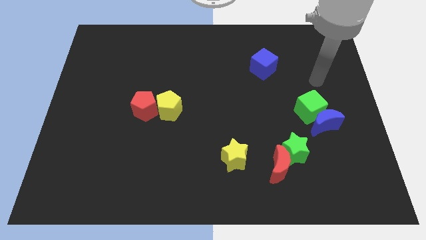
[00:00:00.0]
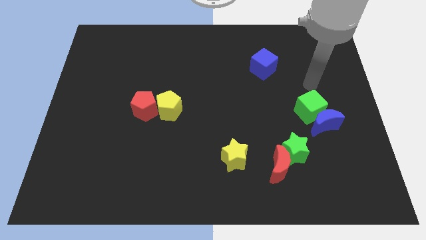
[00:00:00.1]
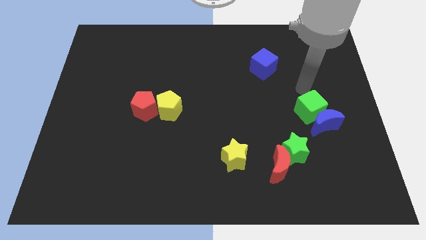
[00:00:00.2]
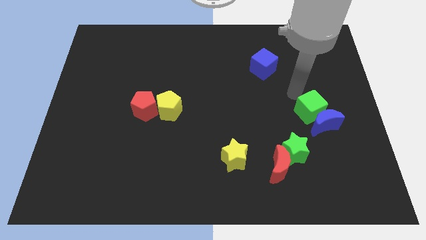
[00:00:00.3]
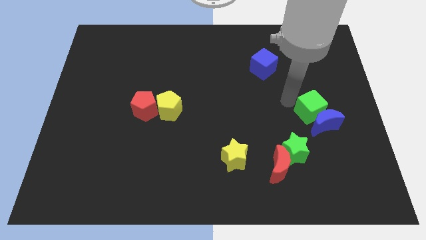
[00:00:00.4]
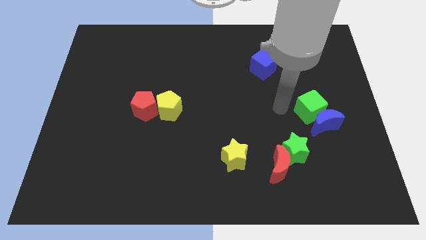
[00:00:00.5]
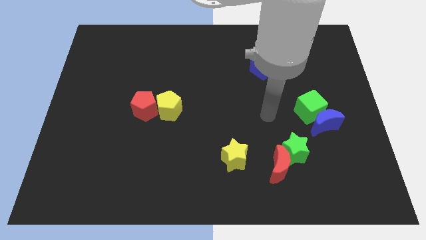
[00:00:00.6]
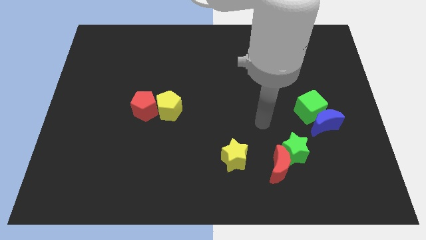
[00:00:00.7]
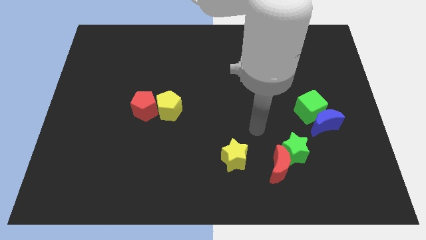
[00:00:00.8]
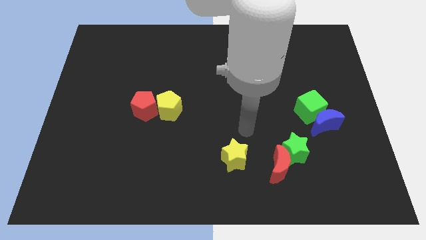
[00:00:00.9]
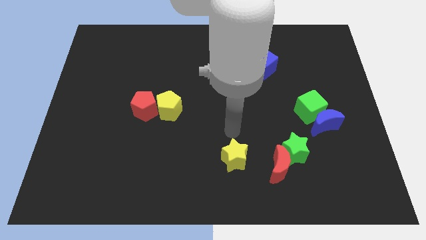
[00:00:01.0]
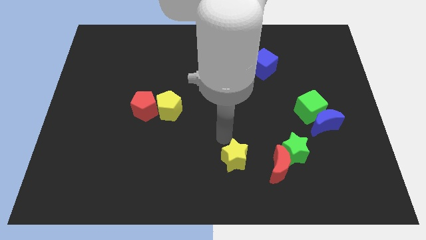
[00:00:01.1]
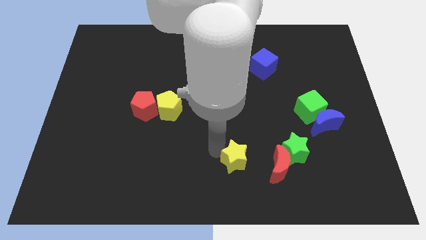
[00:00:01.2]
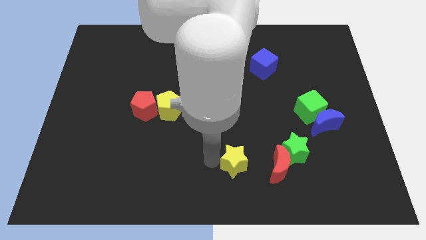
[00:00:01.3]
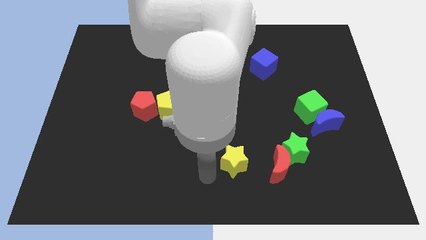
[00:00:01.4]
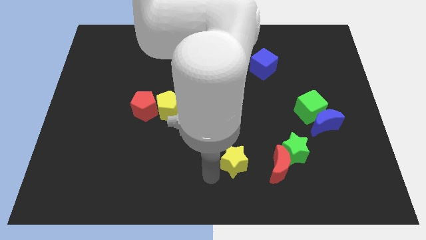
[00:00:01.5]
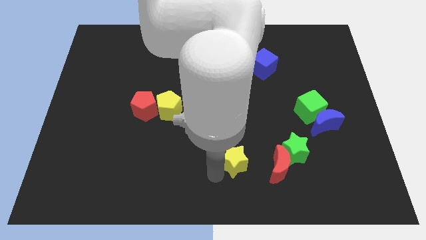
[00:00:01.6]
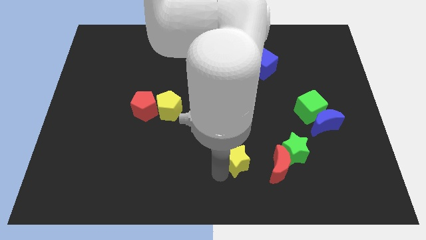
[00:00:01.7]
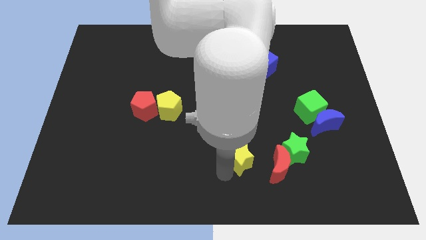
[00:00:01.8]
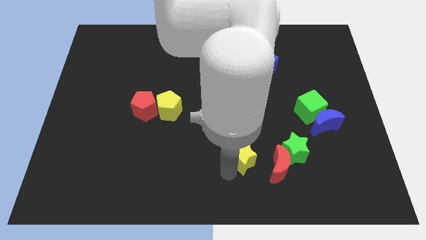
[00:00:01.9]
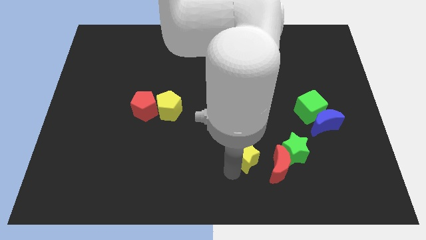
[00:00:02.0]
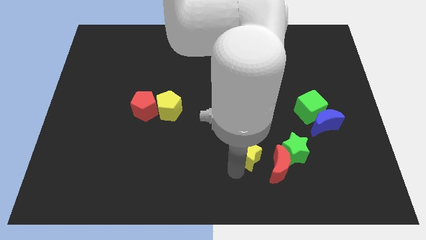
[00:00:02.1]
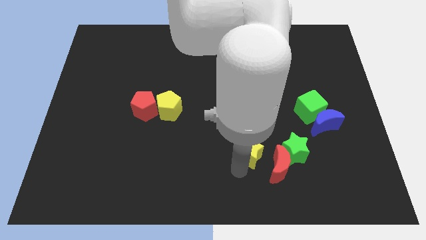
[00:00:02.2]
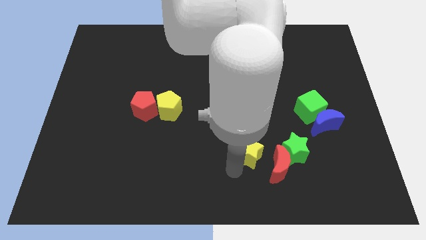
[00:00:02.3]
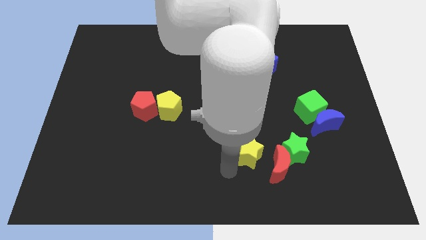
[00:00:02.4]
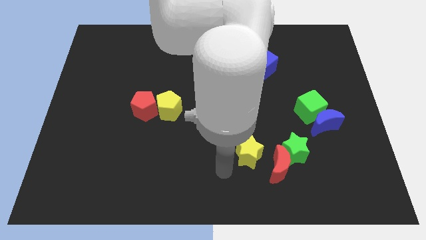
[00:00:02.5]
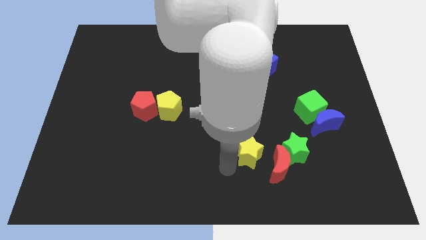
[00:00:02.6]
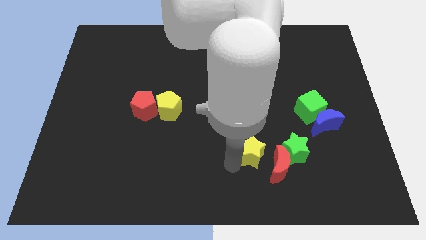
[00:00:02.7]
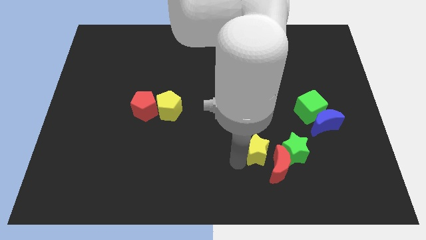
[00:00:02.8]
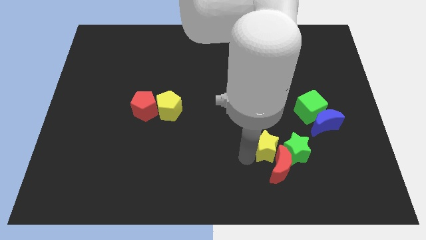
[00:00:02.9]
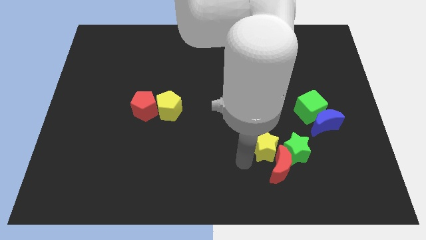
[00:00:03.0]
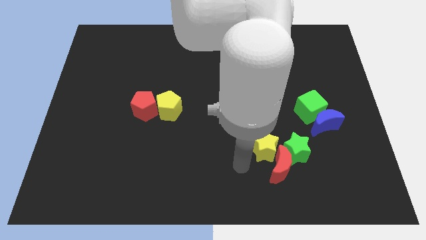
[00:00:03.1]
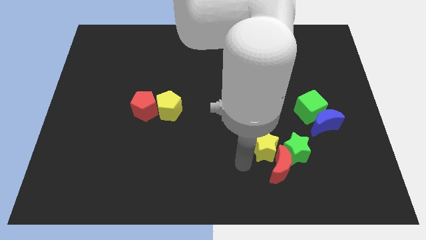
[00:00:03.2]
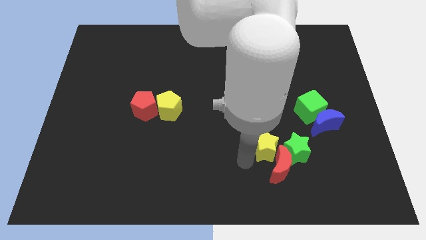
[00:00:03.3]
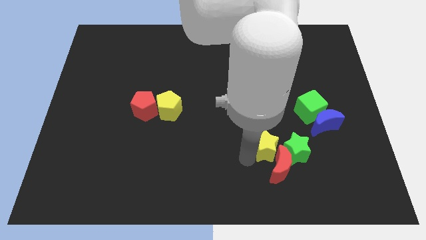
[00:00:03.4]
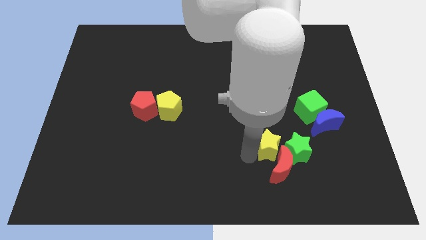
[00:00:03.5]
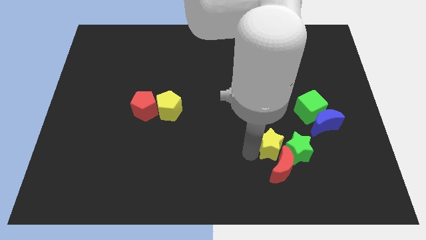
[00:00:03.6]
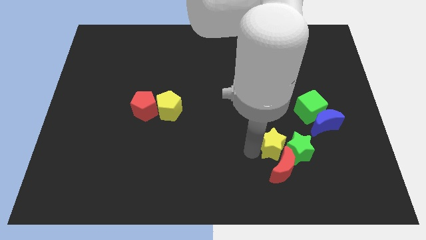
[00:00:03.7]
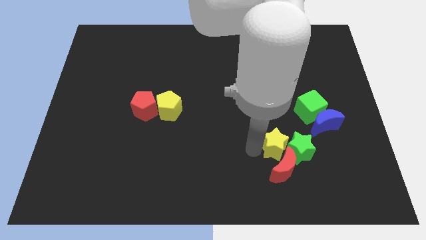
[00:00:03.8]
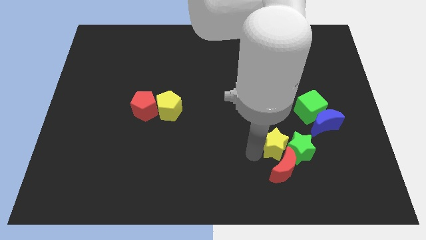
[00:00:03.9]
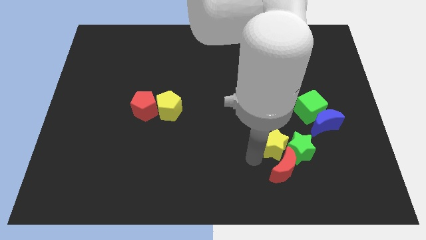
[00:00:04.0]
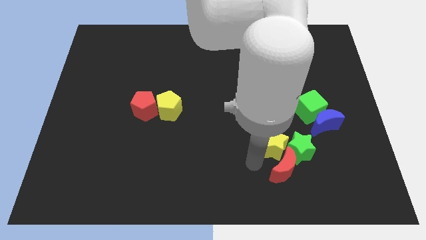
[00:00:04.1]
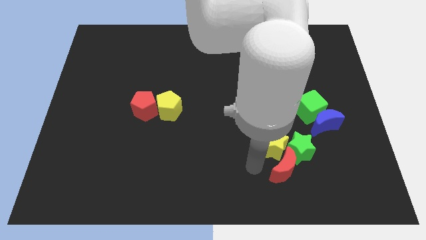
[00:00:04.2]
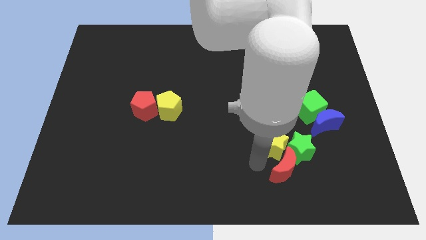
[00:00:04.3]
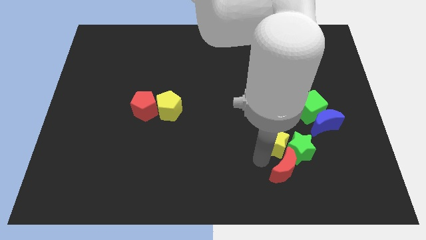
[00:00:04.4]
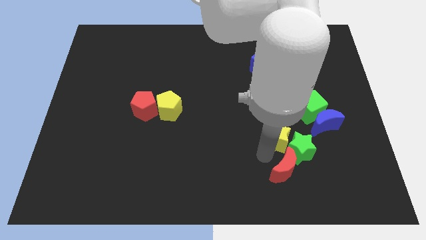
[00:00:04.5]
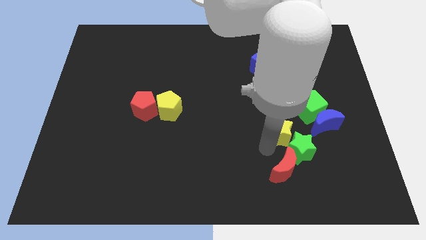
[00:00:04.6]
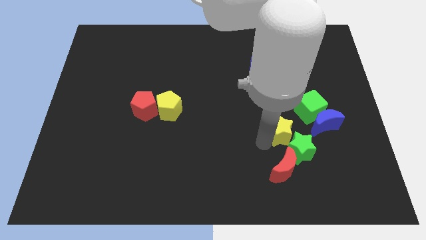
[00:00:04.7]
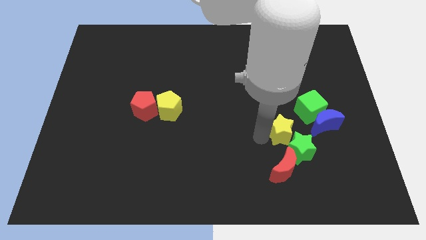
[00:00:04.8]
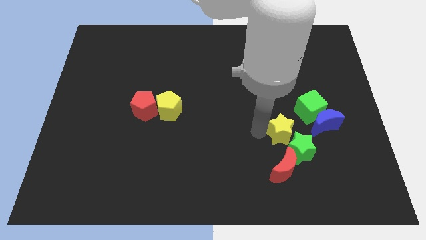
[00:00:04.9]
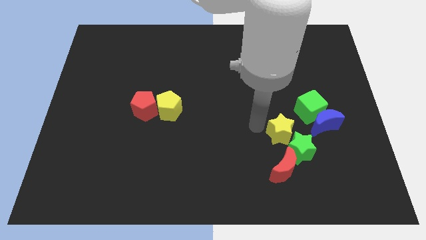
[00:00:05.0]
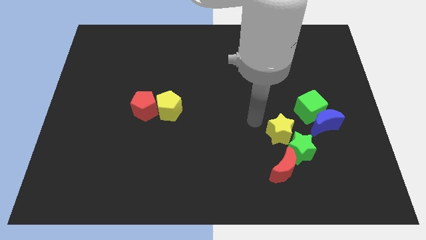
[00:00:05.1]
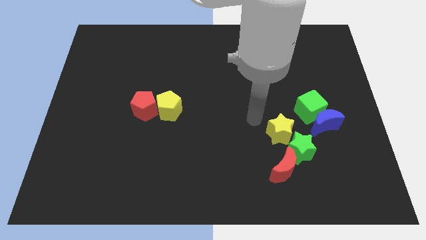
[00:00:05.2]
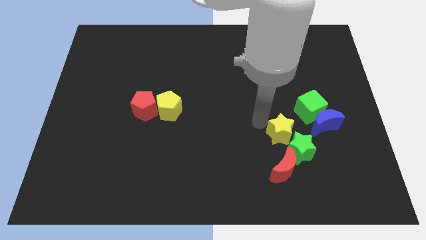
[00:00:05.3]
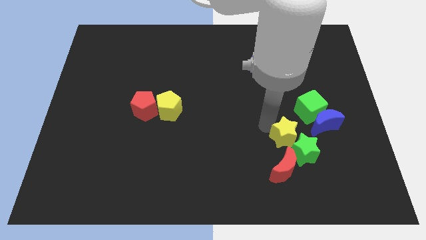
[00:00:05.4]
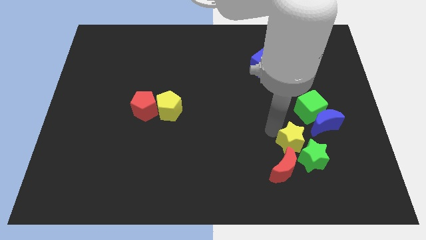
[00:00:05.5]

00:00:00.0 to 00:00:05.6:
put the yellow star to the top right of the red moon

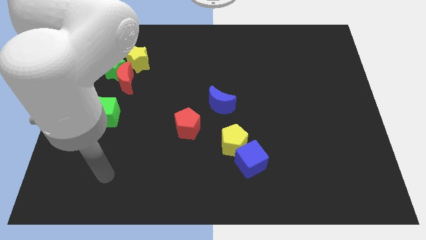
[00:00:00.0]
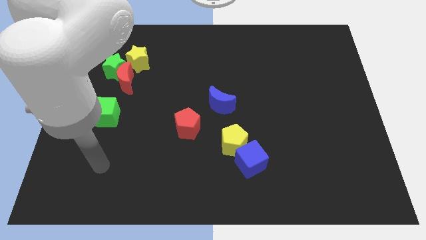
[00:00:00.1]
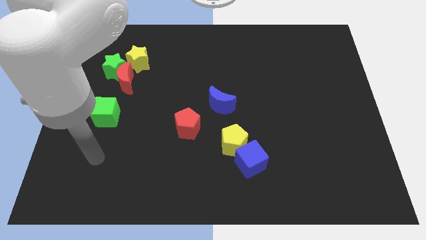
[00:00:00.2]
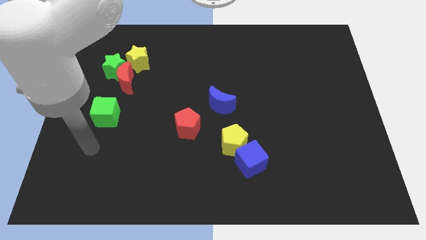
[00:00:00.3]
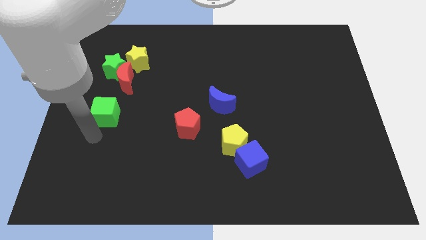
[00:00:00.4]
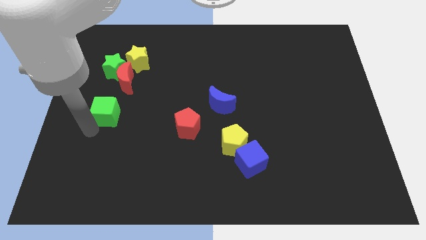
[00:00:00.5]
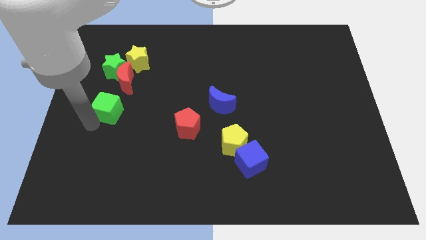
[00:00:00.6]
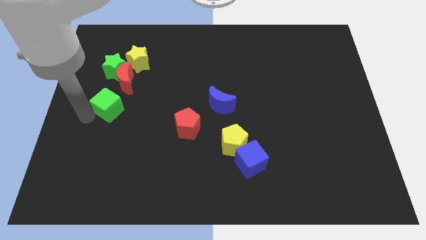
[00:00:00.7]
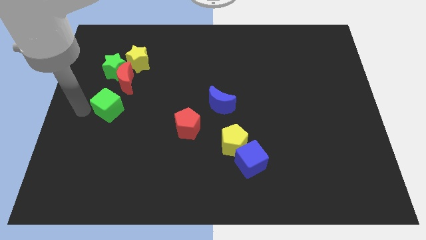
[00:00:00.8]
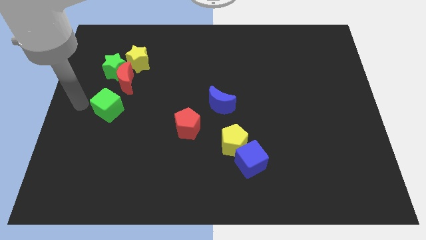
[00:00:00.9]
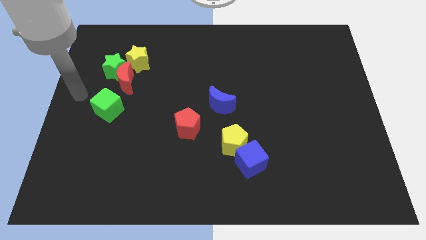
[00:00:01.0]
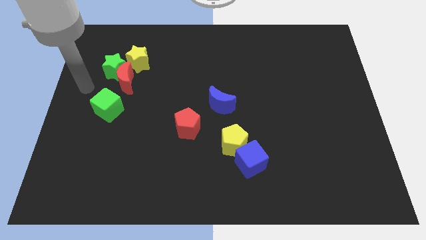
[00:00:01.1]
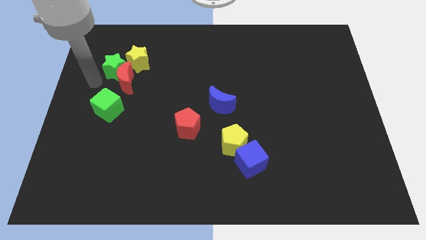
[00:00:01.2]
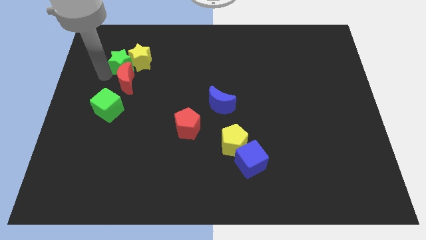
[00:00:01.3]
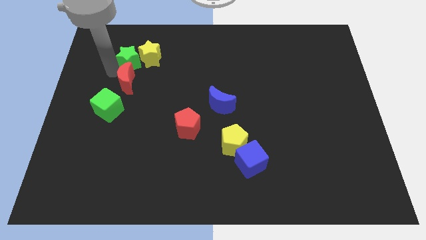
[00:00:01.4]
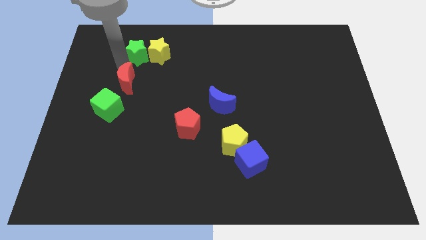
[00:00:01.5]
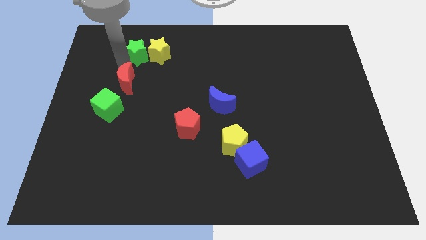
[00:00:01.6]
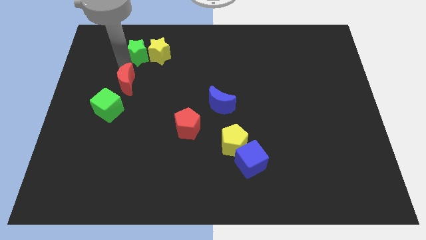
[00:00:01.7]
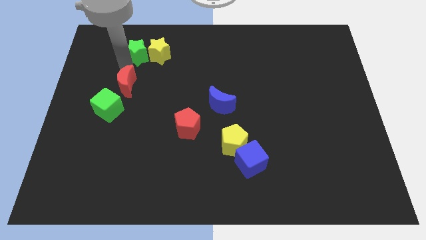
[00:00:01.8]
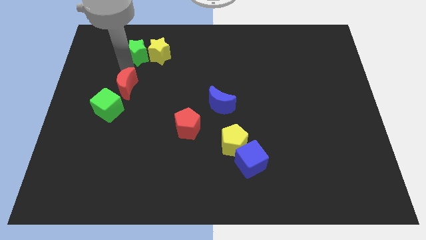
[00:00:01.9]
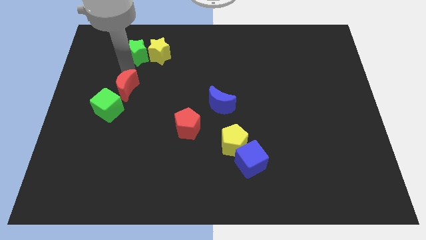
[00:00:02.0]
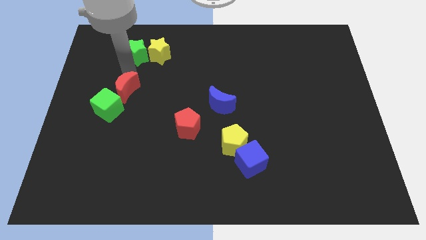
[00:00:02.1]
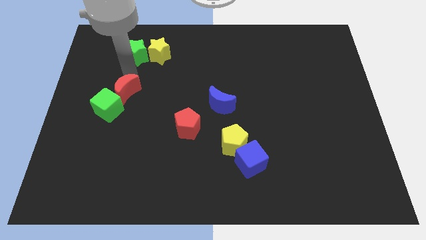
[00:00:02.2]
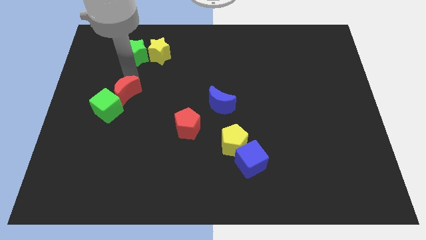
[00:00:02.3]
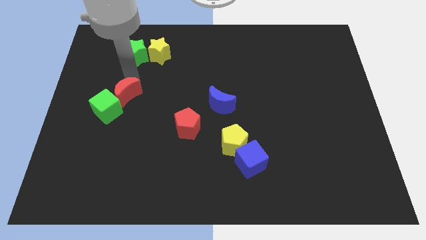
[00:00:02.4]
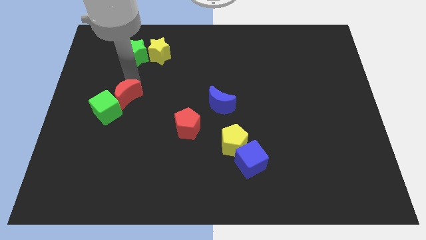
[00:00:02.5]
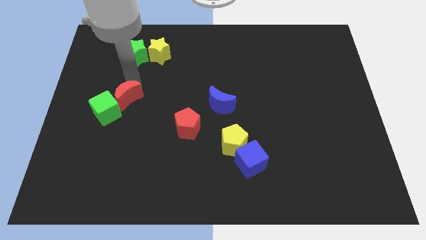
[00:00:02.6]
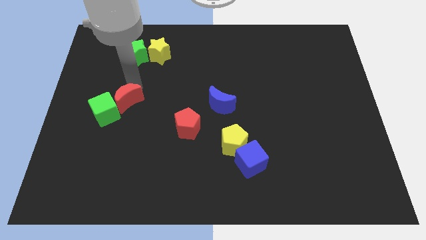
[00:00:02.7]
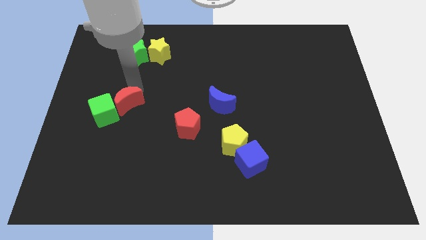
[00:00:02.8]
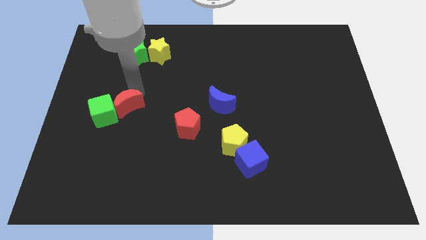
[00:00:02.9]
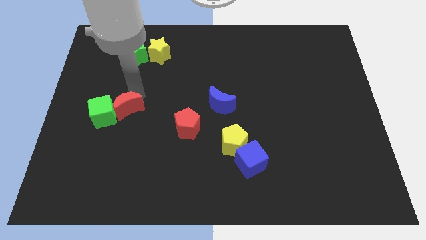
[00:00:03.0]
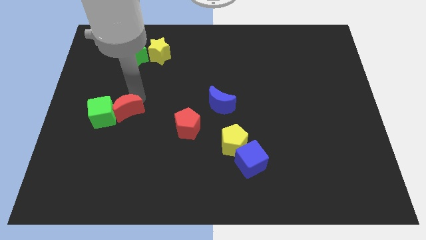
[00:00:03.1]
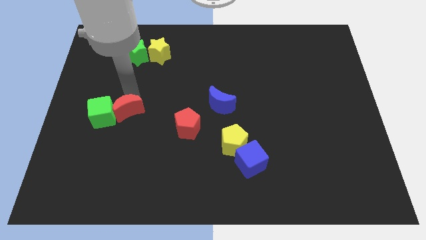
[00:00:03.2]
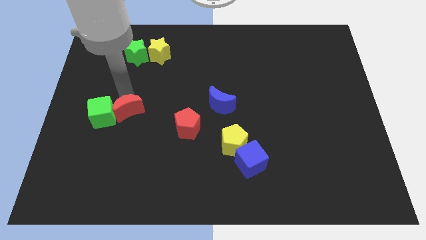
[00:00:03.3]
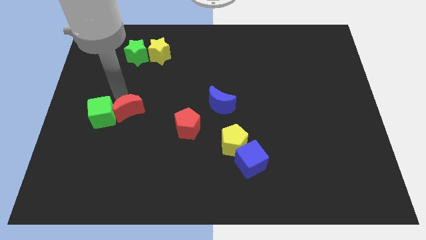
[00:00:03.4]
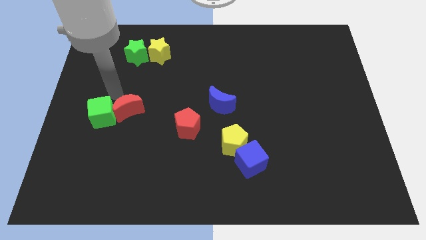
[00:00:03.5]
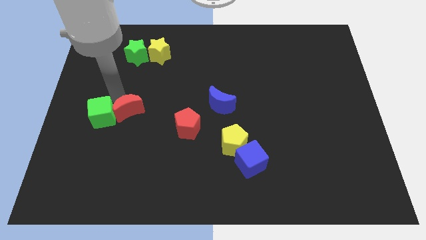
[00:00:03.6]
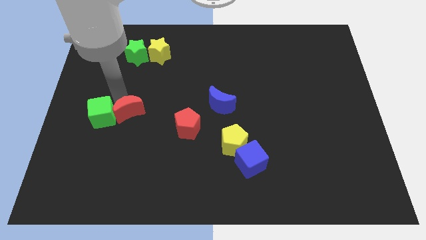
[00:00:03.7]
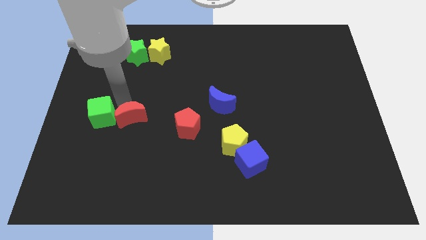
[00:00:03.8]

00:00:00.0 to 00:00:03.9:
move the red moon to the left side of the red pentagon
